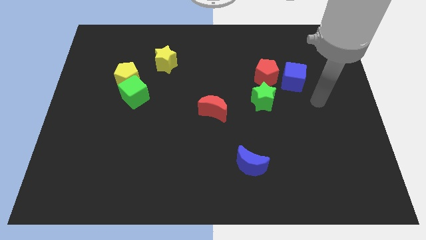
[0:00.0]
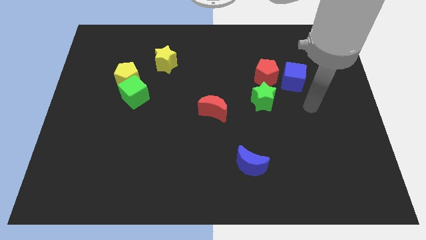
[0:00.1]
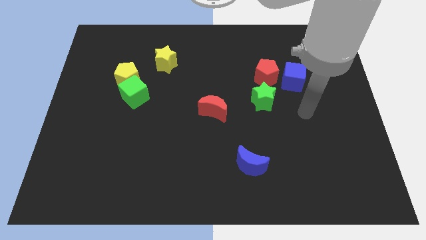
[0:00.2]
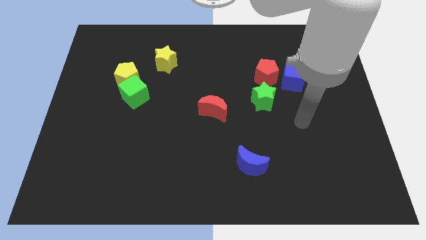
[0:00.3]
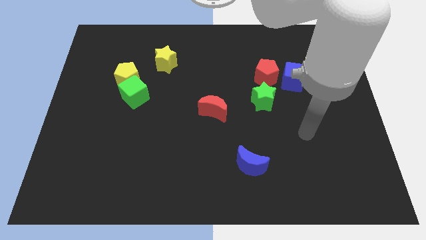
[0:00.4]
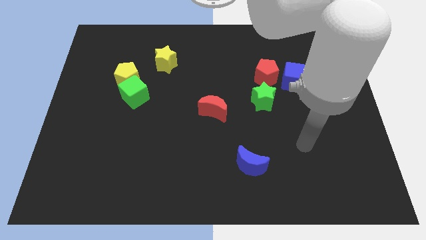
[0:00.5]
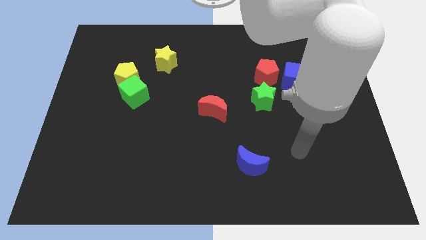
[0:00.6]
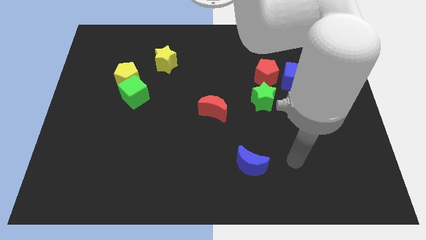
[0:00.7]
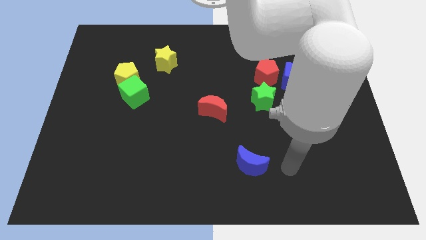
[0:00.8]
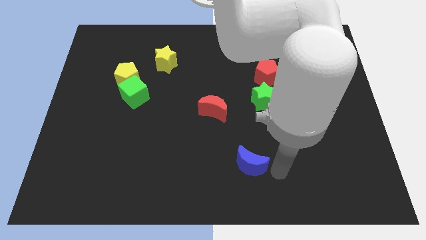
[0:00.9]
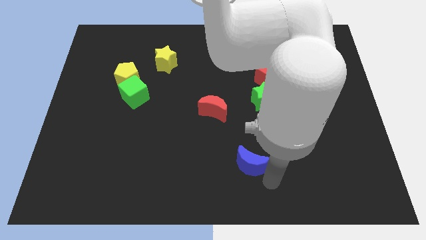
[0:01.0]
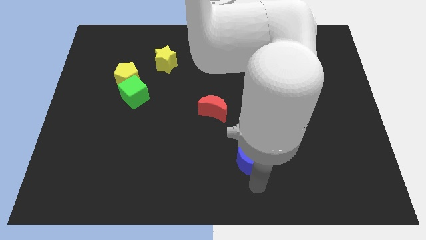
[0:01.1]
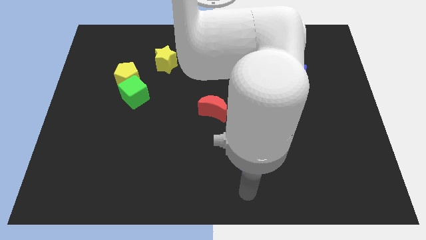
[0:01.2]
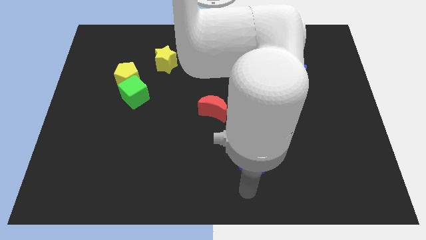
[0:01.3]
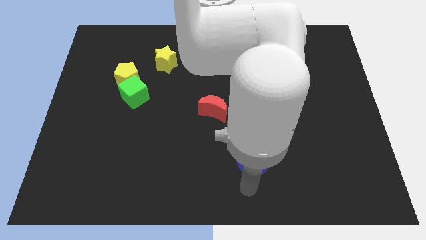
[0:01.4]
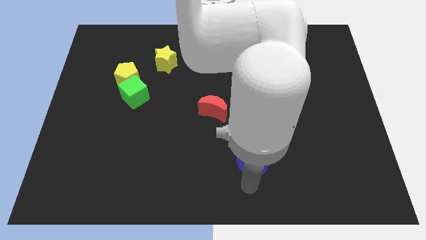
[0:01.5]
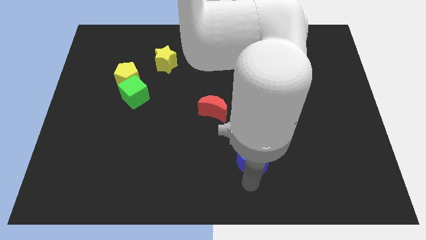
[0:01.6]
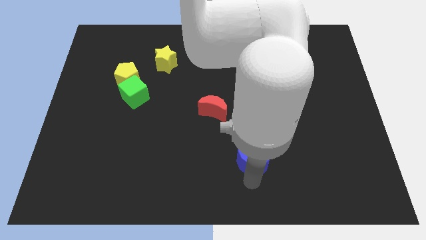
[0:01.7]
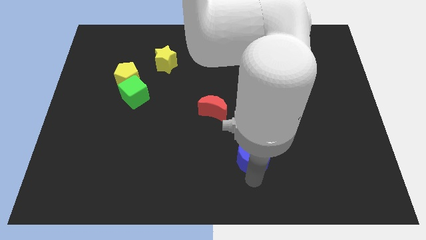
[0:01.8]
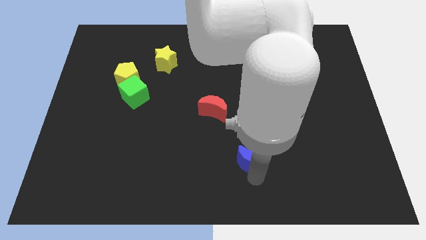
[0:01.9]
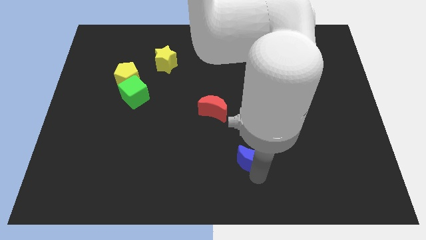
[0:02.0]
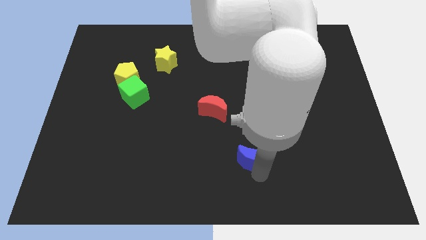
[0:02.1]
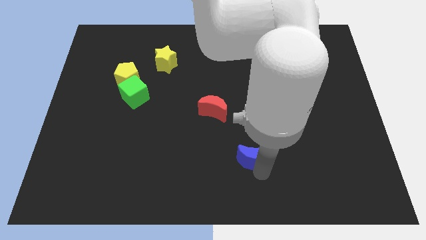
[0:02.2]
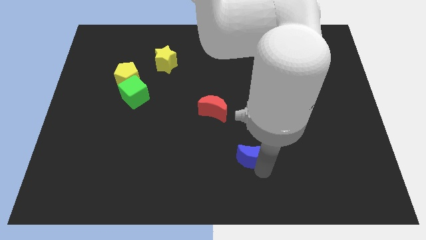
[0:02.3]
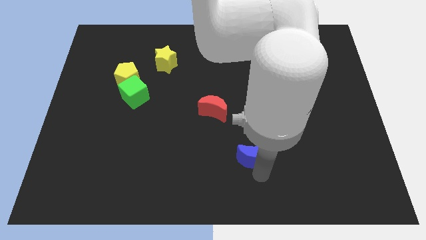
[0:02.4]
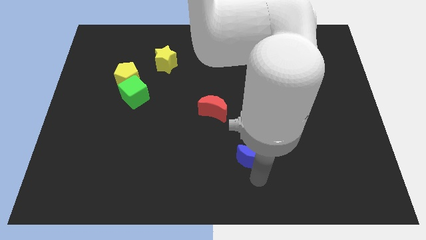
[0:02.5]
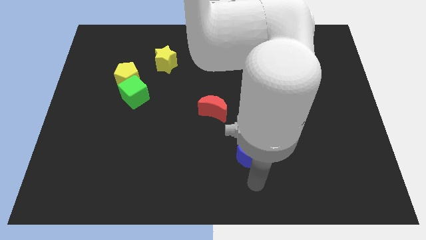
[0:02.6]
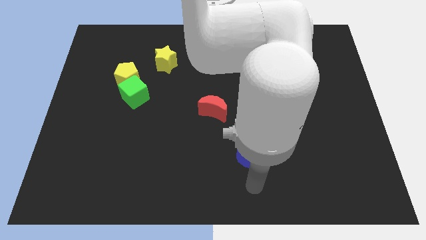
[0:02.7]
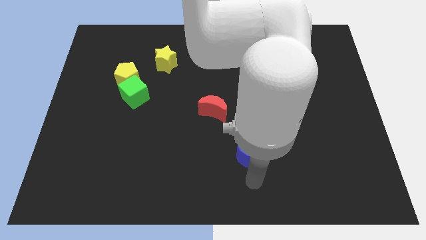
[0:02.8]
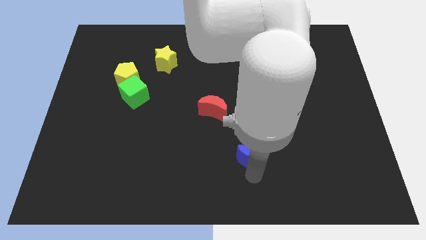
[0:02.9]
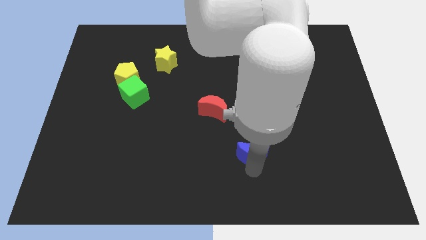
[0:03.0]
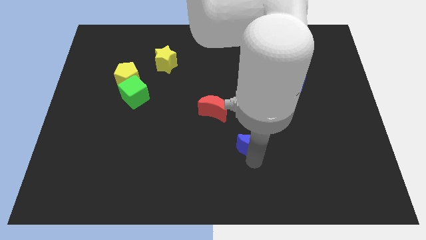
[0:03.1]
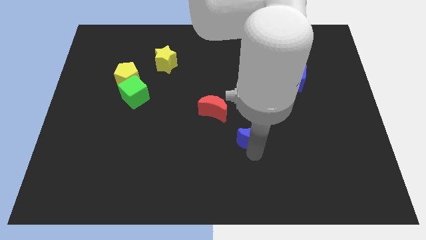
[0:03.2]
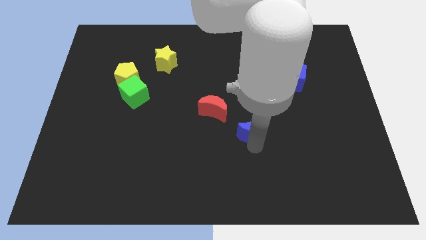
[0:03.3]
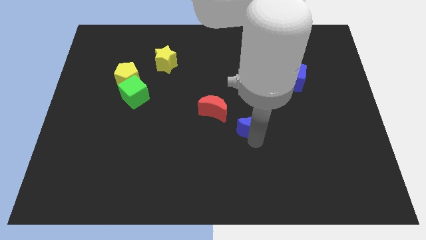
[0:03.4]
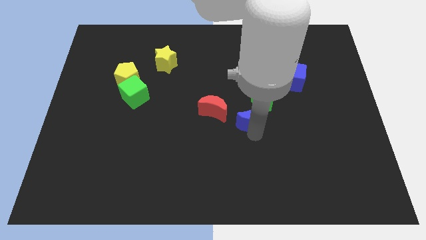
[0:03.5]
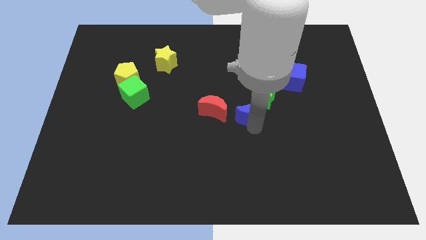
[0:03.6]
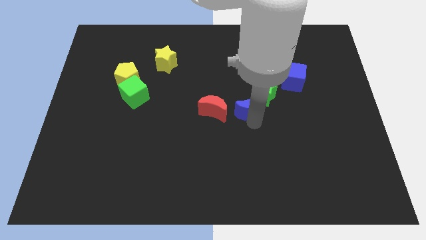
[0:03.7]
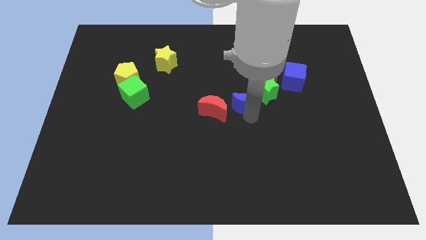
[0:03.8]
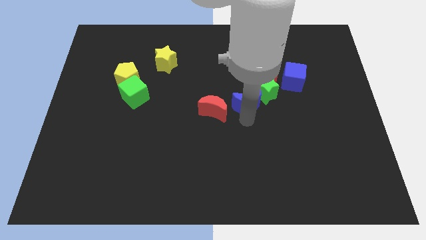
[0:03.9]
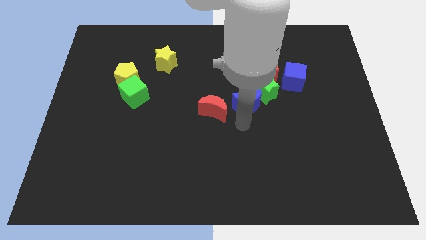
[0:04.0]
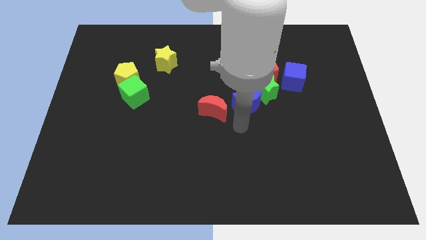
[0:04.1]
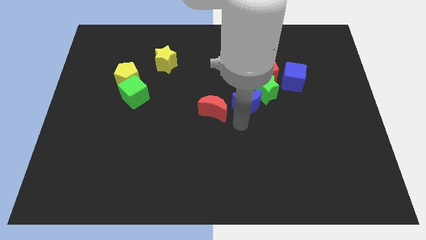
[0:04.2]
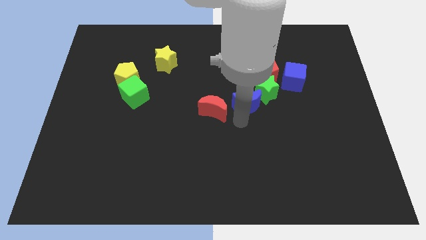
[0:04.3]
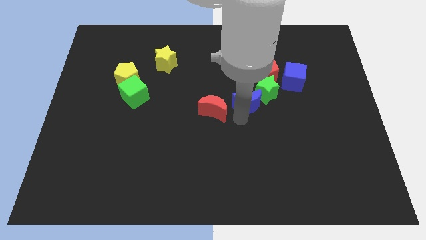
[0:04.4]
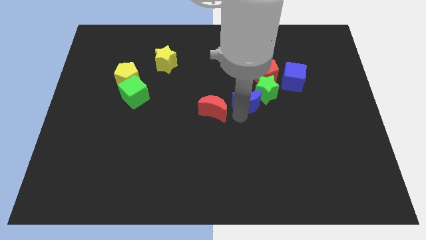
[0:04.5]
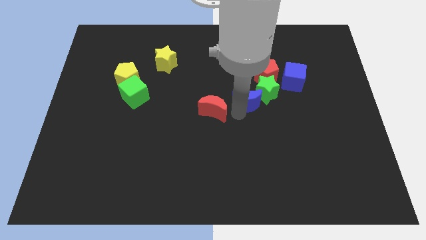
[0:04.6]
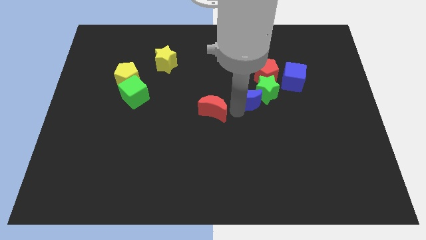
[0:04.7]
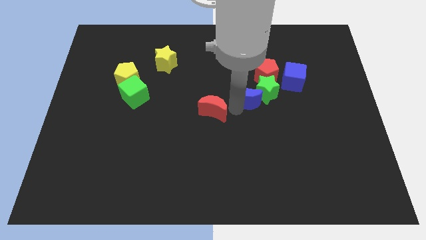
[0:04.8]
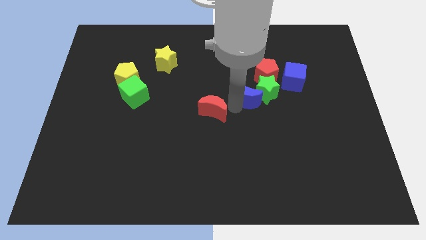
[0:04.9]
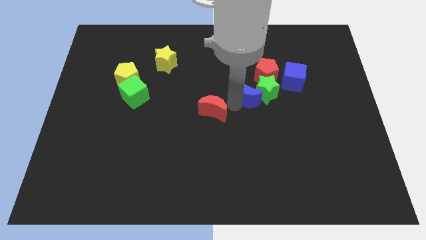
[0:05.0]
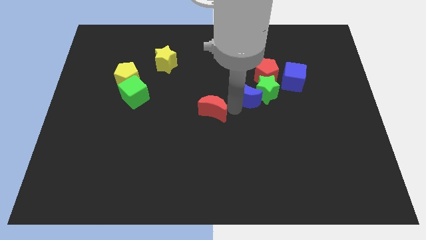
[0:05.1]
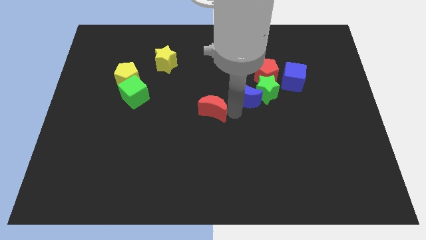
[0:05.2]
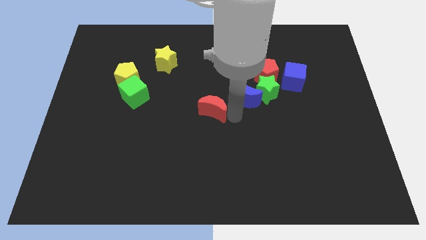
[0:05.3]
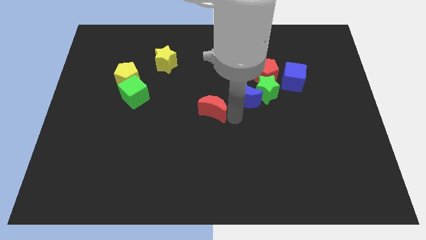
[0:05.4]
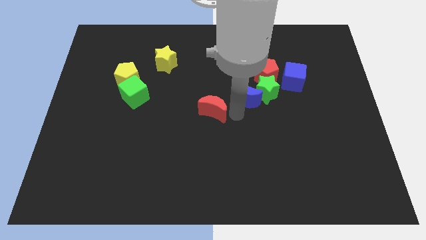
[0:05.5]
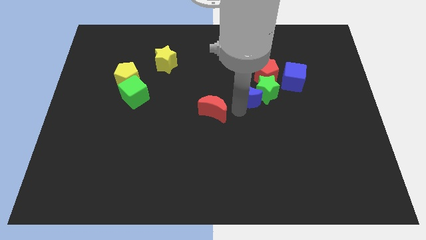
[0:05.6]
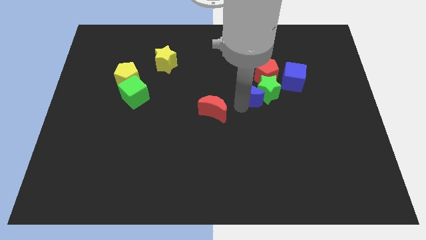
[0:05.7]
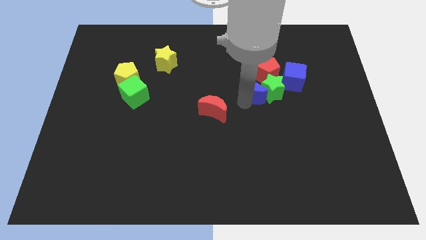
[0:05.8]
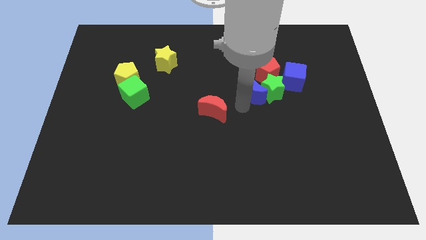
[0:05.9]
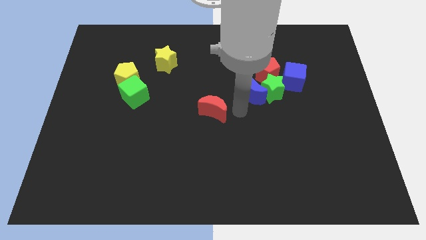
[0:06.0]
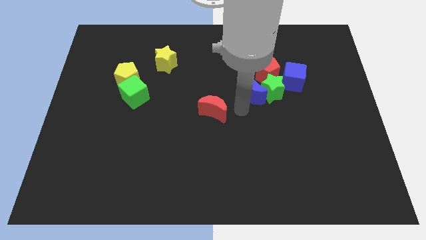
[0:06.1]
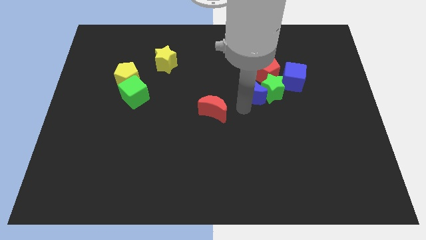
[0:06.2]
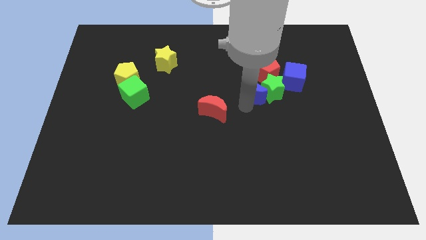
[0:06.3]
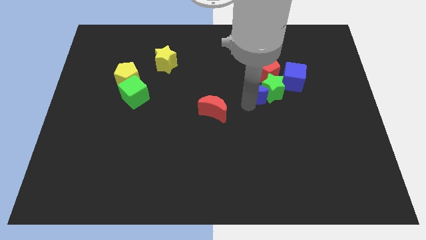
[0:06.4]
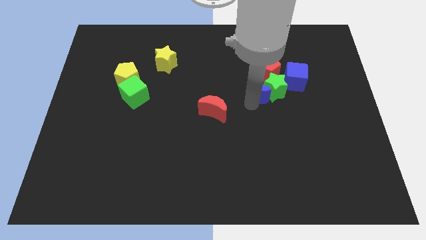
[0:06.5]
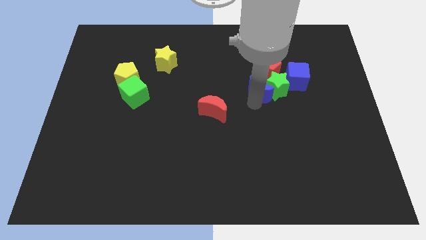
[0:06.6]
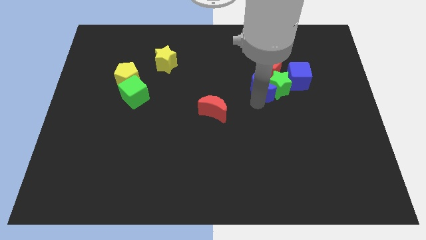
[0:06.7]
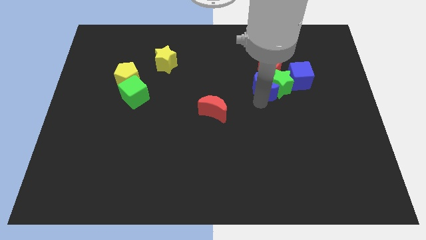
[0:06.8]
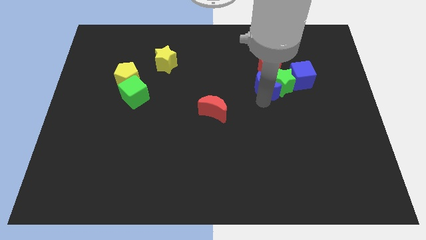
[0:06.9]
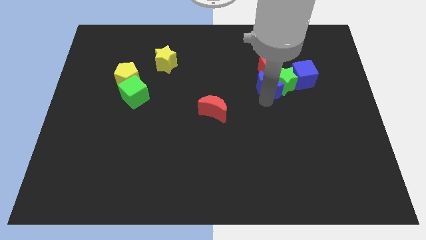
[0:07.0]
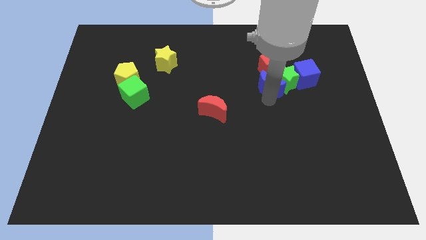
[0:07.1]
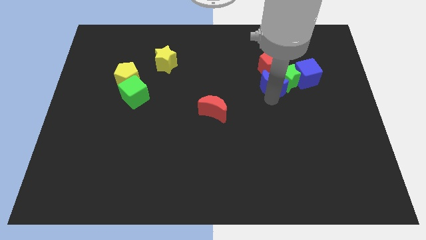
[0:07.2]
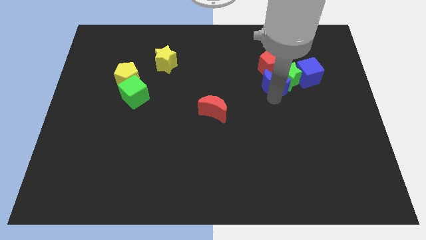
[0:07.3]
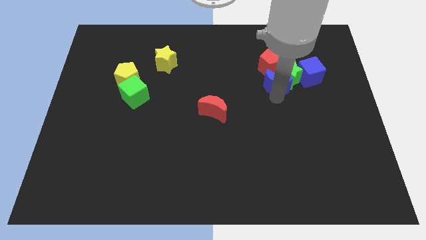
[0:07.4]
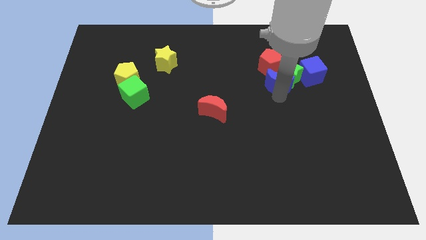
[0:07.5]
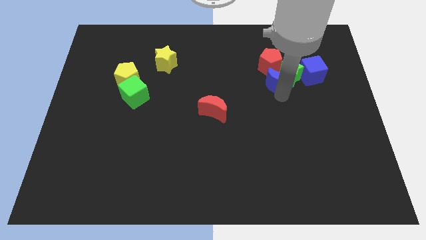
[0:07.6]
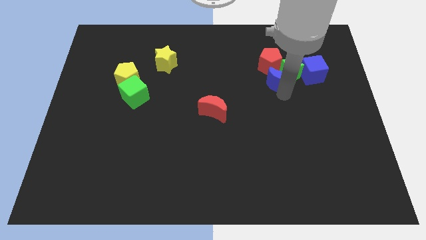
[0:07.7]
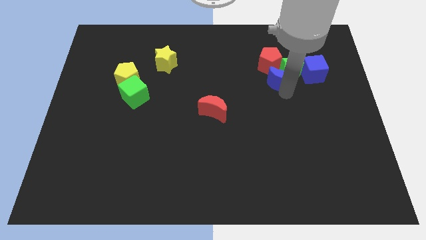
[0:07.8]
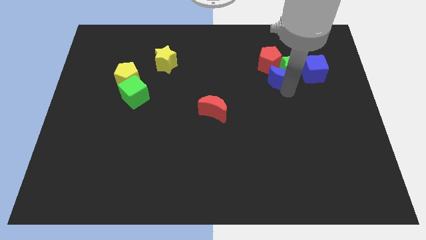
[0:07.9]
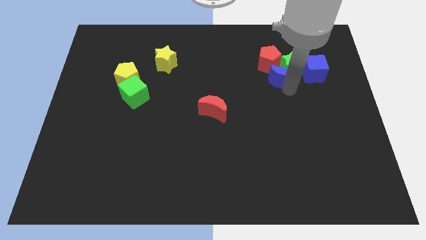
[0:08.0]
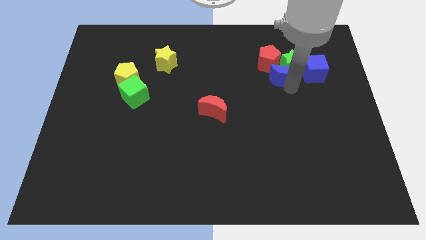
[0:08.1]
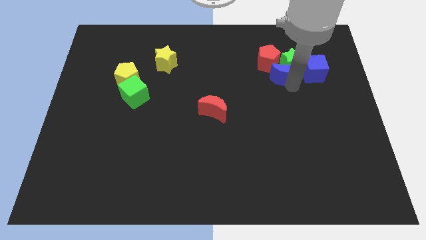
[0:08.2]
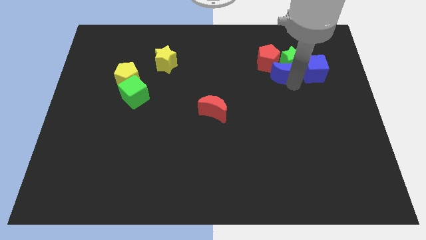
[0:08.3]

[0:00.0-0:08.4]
move the blue moon next to the red pentagon
